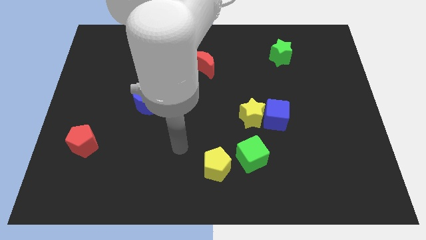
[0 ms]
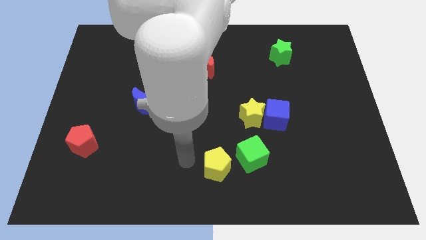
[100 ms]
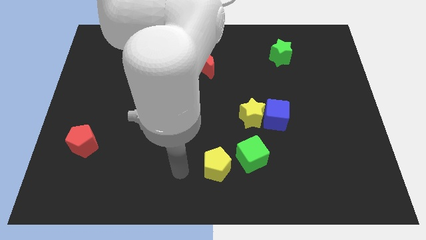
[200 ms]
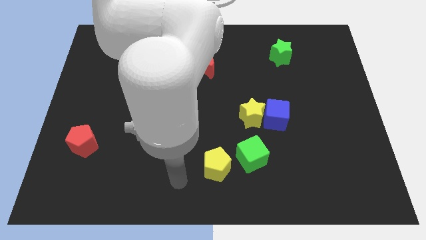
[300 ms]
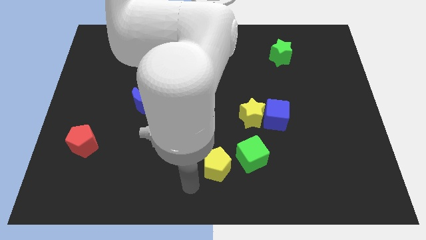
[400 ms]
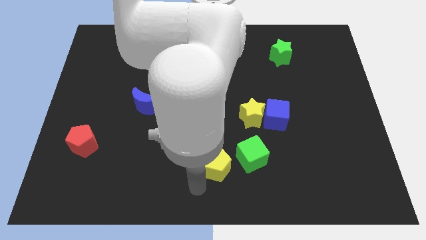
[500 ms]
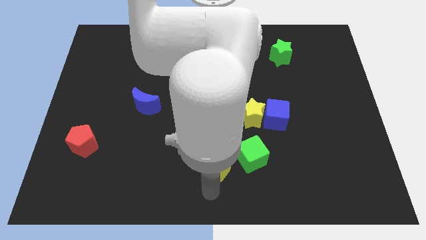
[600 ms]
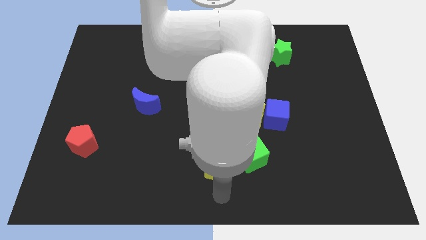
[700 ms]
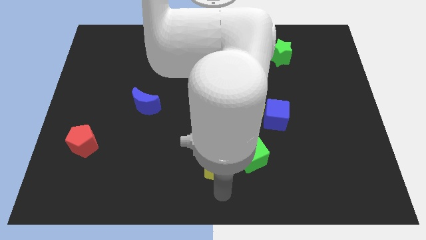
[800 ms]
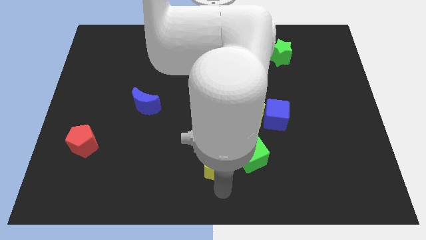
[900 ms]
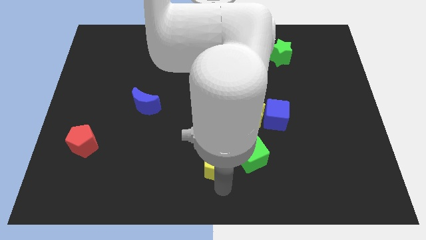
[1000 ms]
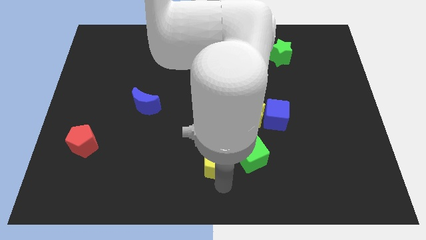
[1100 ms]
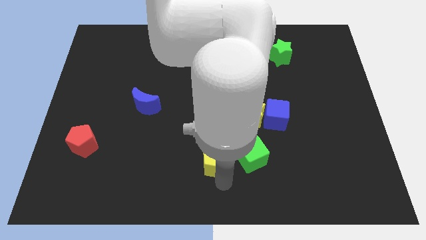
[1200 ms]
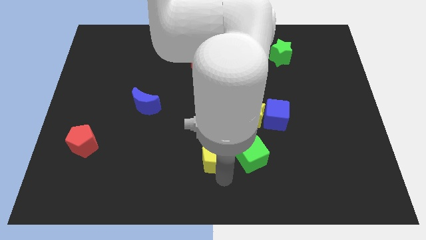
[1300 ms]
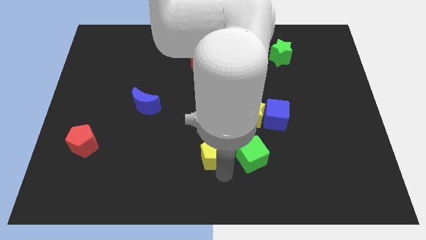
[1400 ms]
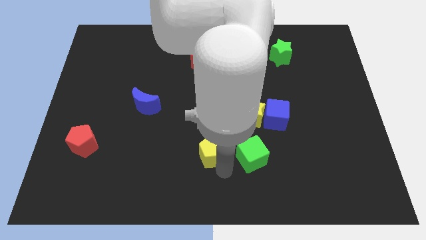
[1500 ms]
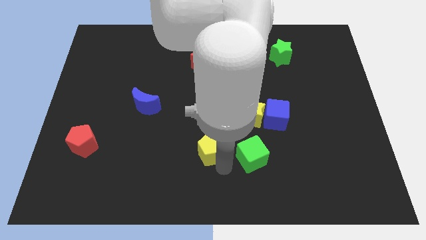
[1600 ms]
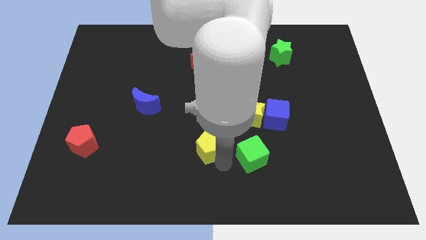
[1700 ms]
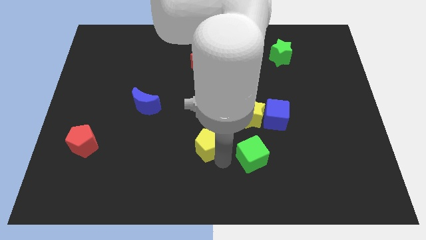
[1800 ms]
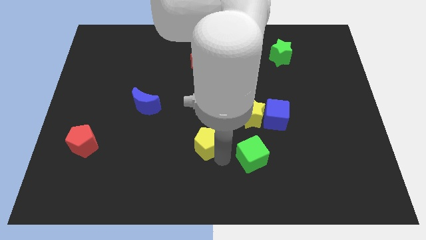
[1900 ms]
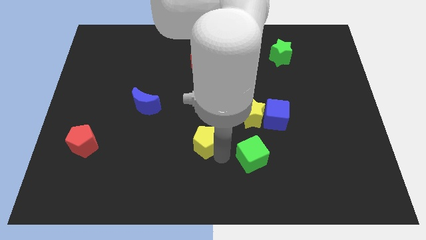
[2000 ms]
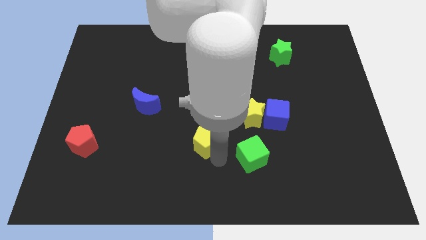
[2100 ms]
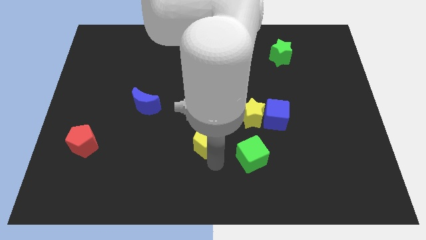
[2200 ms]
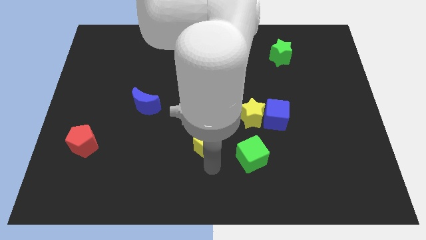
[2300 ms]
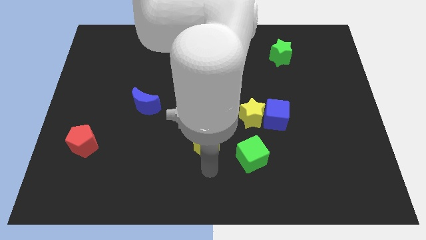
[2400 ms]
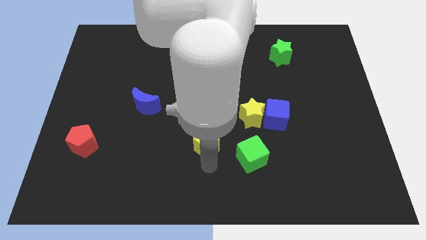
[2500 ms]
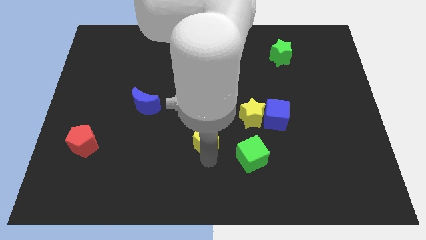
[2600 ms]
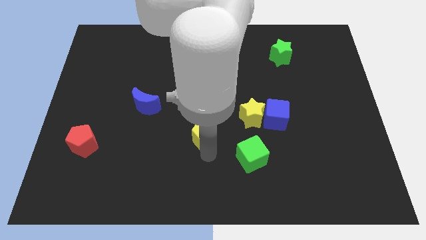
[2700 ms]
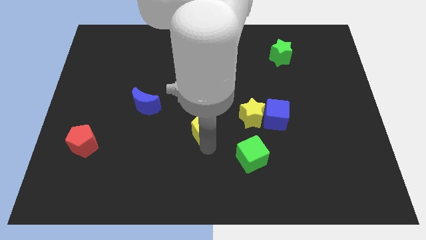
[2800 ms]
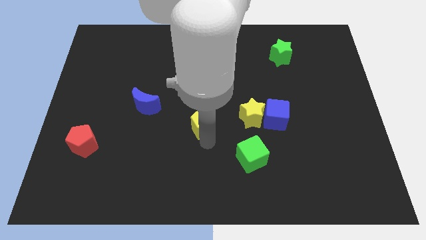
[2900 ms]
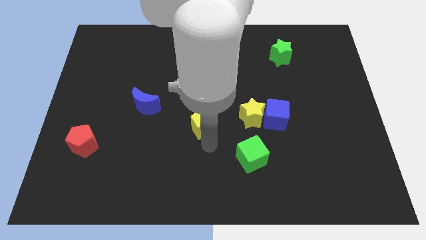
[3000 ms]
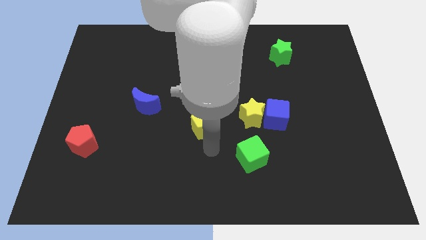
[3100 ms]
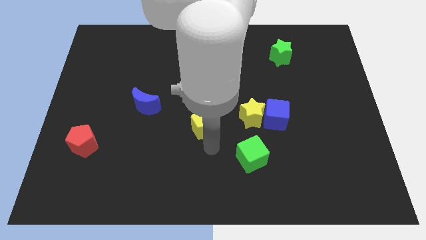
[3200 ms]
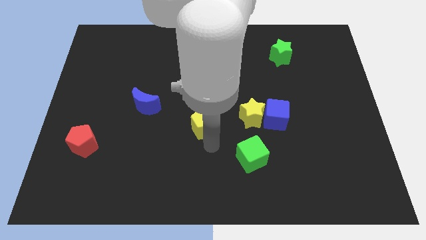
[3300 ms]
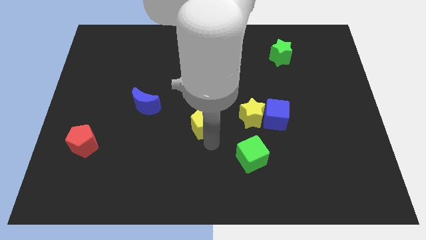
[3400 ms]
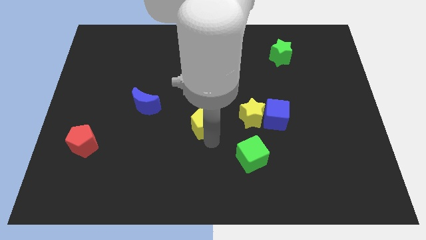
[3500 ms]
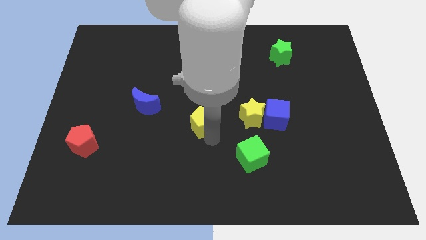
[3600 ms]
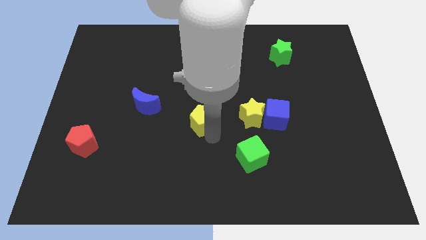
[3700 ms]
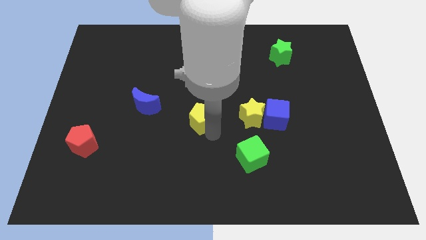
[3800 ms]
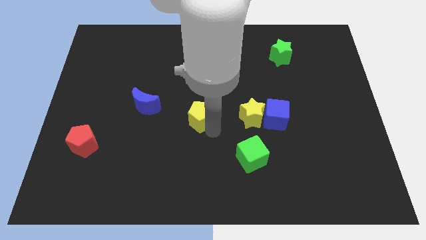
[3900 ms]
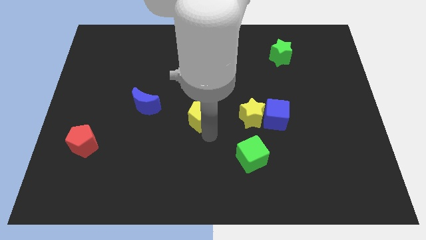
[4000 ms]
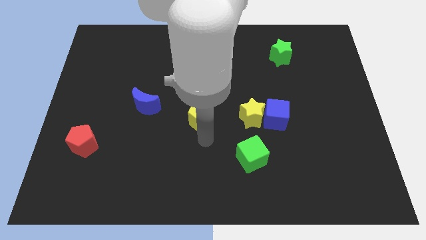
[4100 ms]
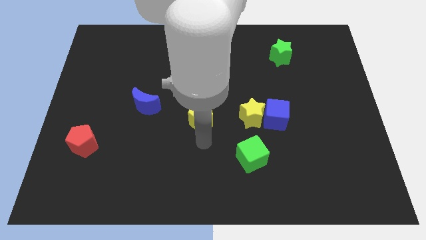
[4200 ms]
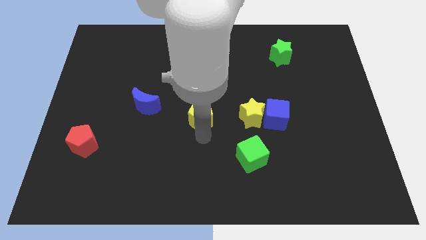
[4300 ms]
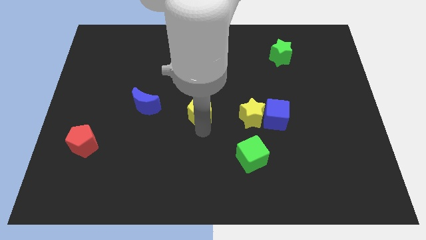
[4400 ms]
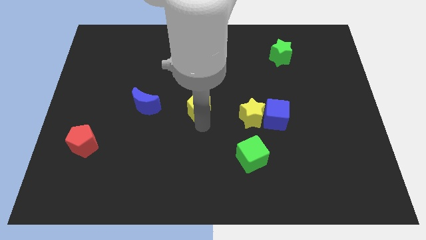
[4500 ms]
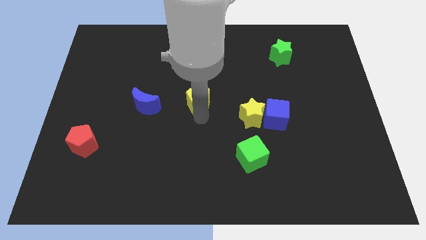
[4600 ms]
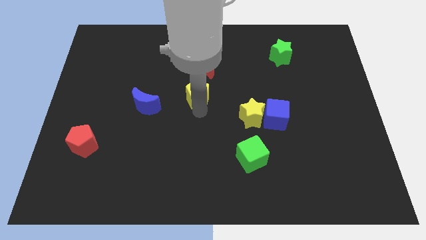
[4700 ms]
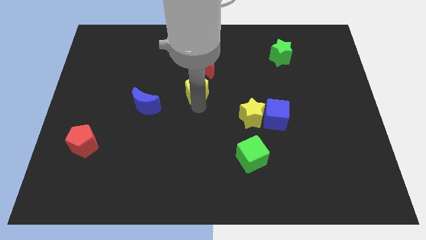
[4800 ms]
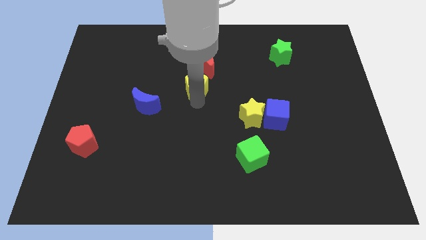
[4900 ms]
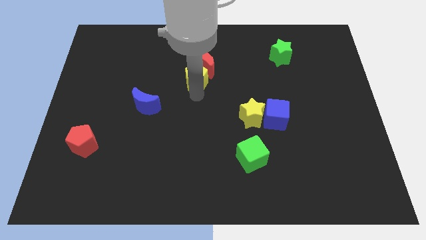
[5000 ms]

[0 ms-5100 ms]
slide the yellow pentagon close to the red moon

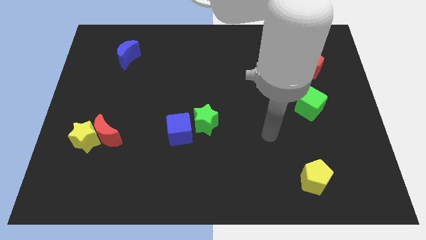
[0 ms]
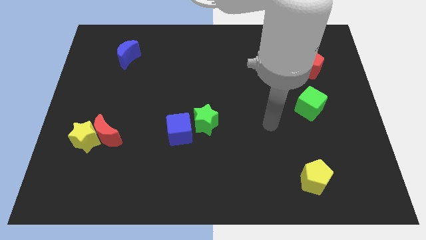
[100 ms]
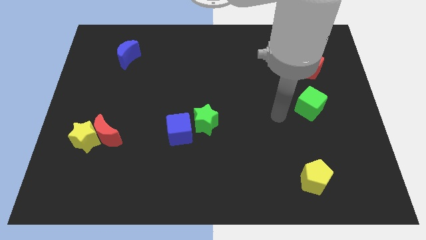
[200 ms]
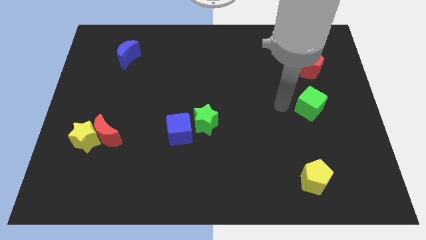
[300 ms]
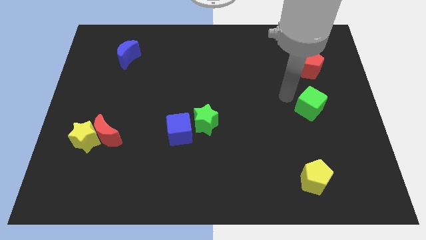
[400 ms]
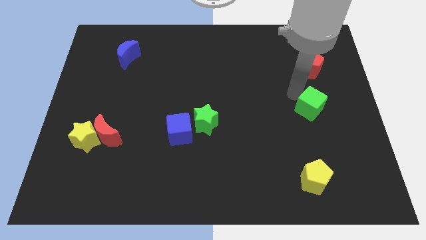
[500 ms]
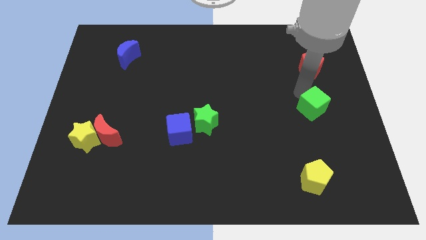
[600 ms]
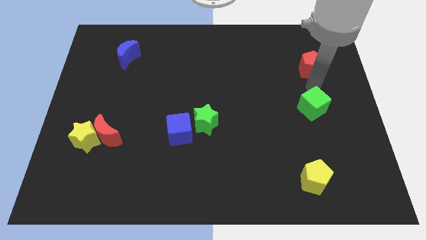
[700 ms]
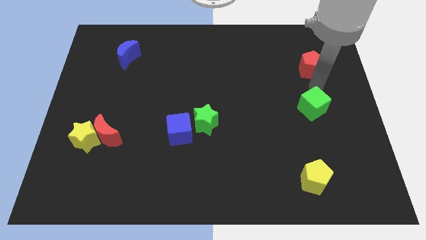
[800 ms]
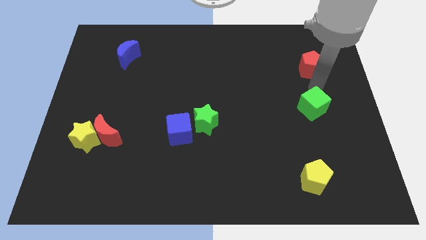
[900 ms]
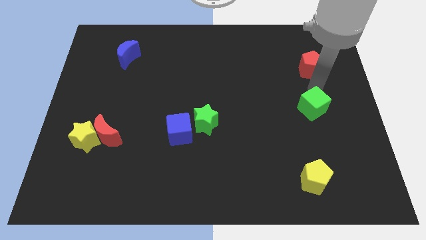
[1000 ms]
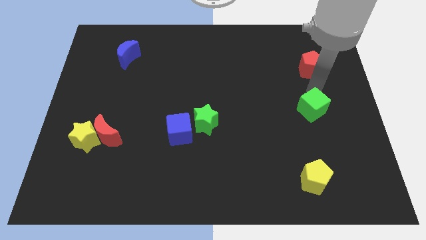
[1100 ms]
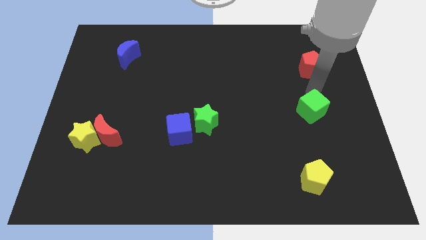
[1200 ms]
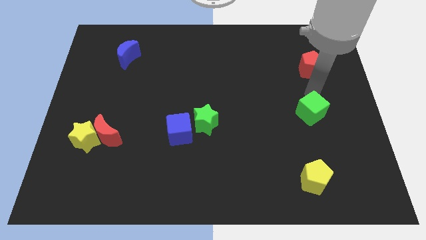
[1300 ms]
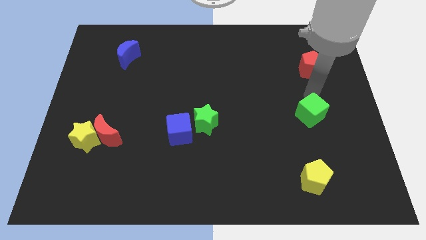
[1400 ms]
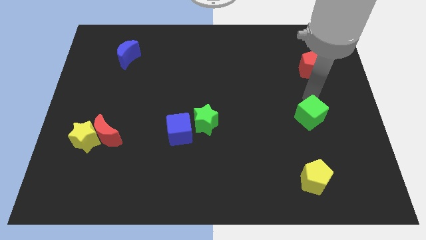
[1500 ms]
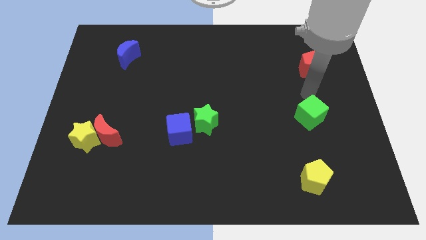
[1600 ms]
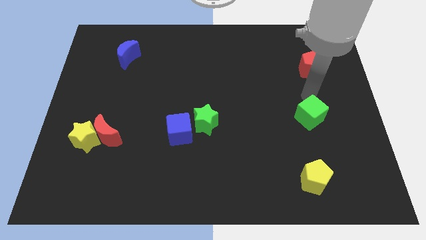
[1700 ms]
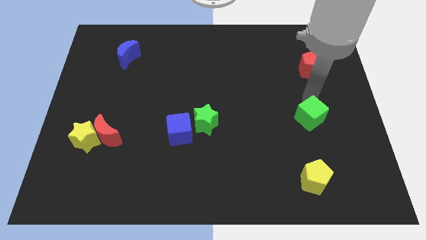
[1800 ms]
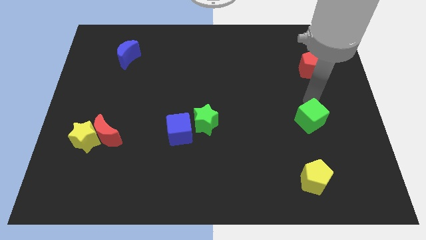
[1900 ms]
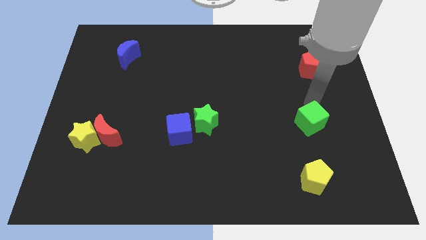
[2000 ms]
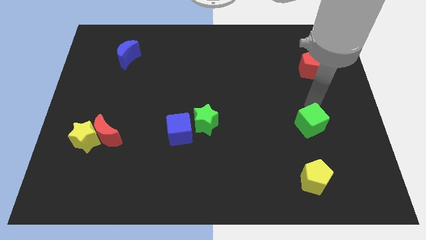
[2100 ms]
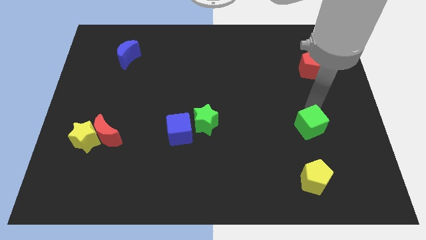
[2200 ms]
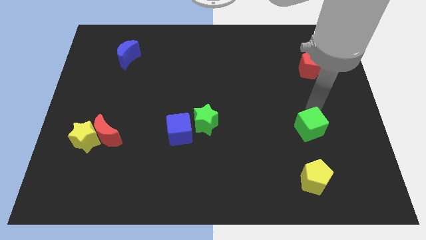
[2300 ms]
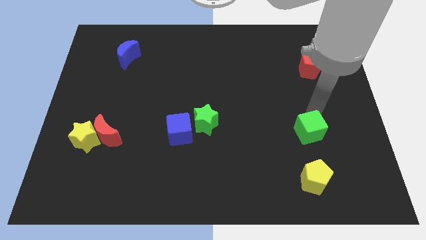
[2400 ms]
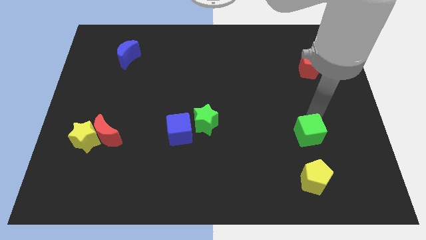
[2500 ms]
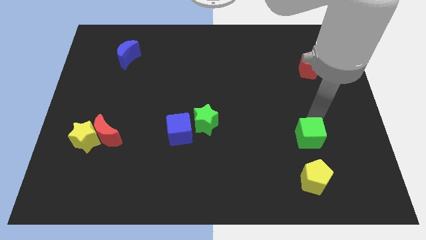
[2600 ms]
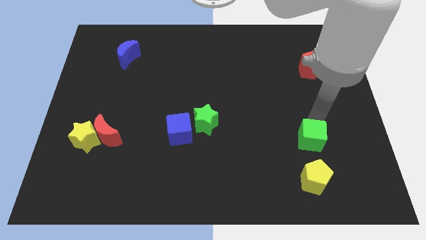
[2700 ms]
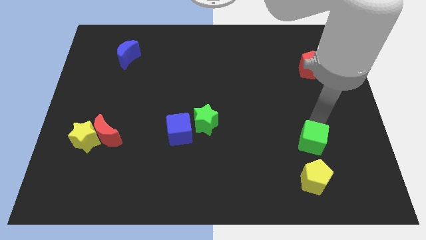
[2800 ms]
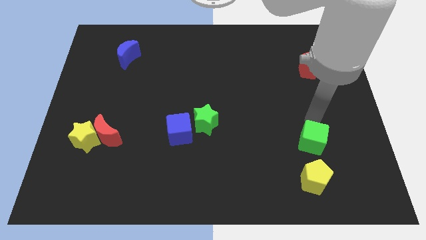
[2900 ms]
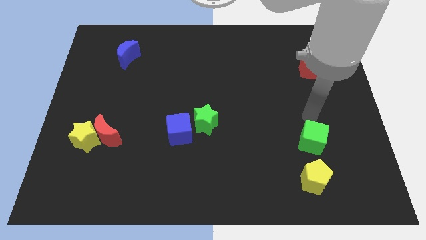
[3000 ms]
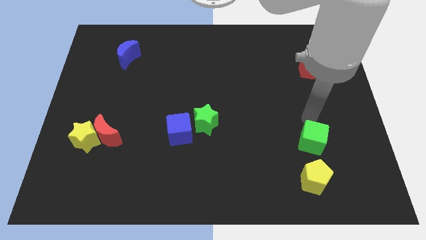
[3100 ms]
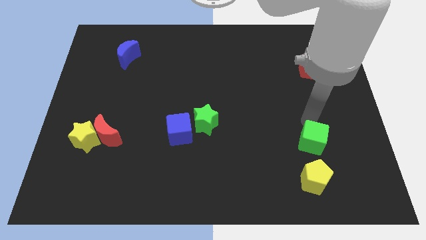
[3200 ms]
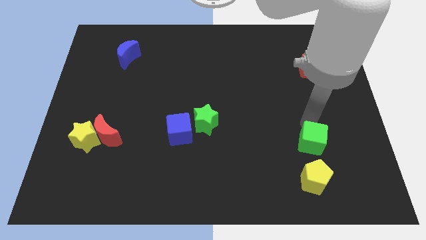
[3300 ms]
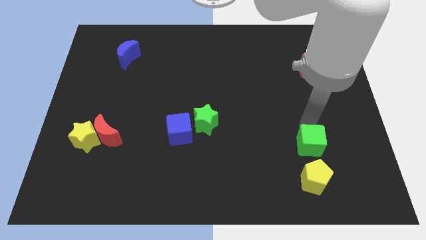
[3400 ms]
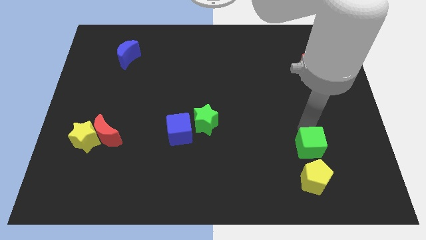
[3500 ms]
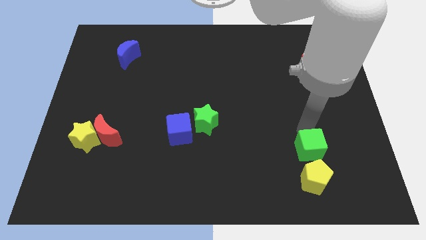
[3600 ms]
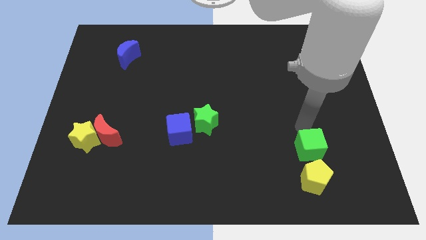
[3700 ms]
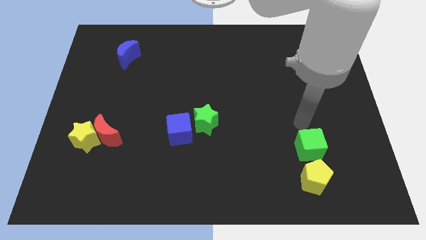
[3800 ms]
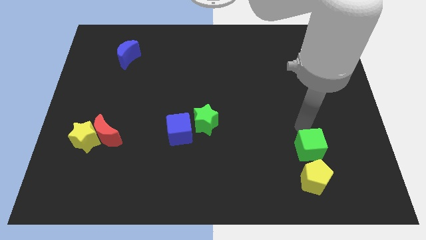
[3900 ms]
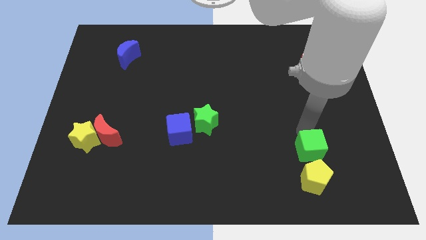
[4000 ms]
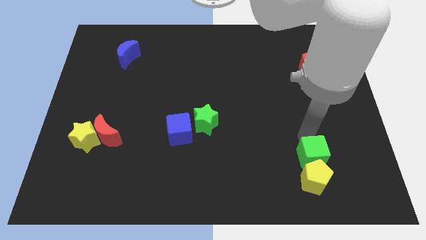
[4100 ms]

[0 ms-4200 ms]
slide the green cube next to the yellow pentagon
